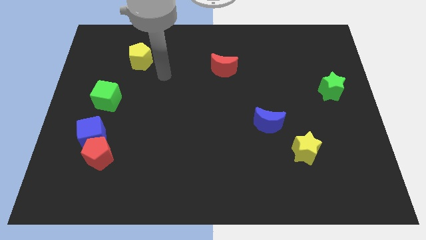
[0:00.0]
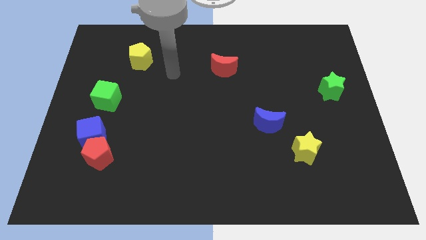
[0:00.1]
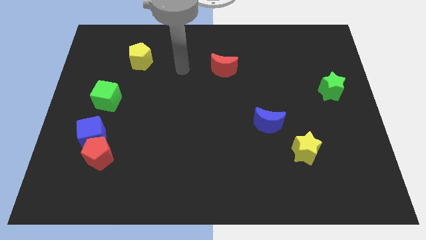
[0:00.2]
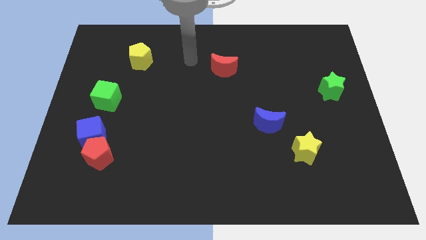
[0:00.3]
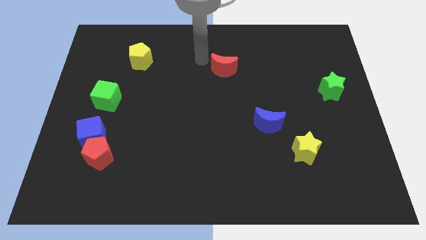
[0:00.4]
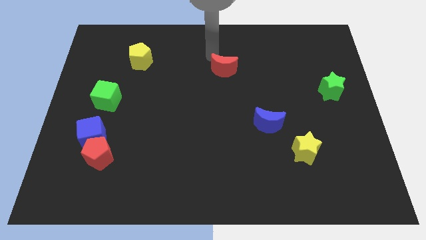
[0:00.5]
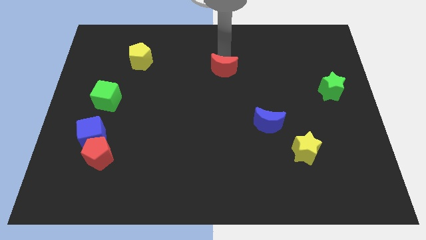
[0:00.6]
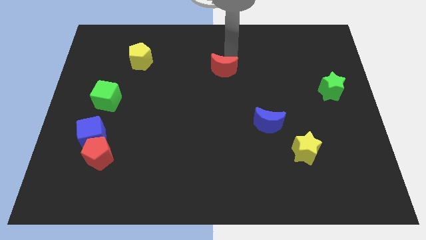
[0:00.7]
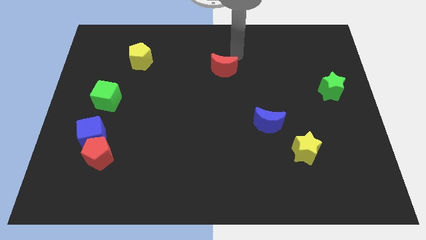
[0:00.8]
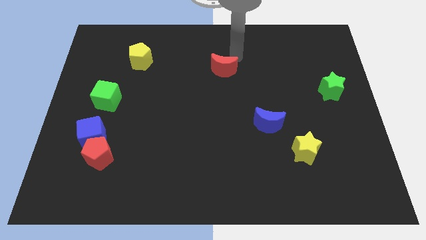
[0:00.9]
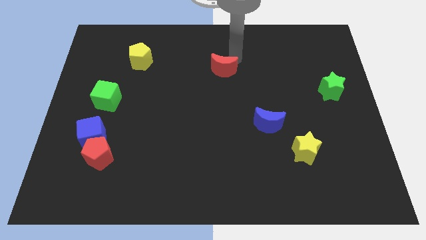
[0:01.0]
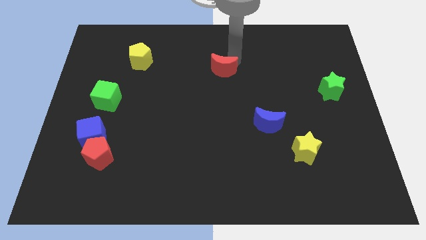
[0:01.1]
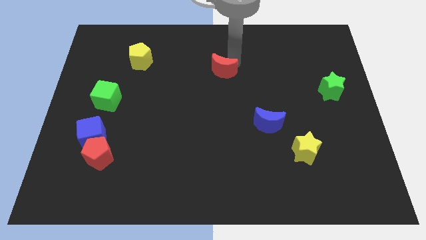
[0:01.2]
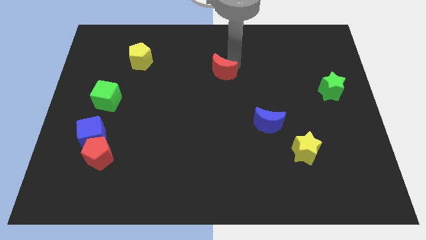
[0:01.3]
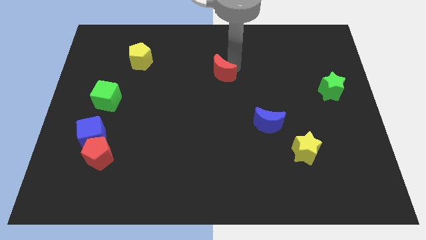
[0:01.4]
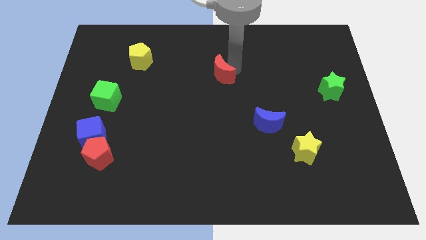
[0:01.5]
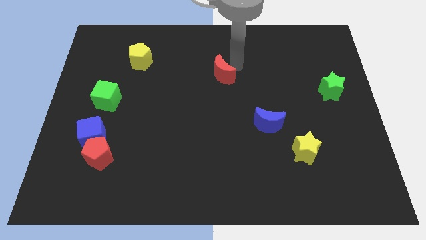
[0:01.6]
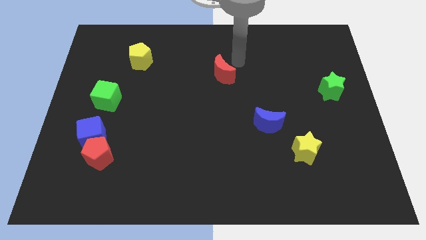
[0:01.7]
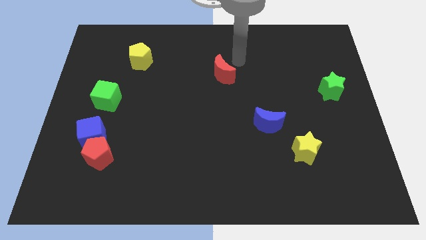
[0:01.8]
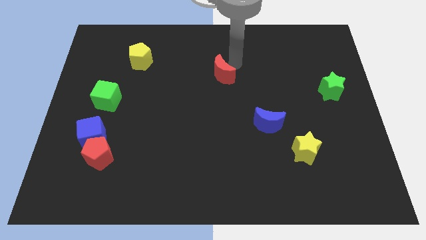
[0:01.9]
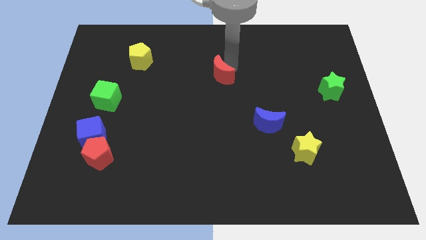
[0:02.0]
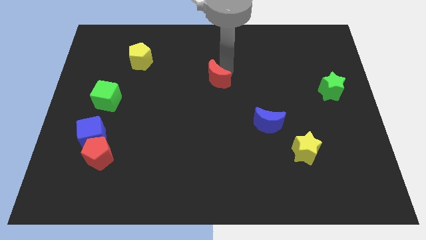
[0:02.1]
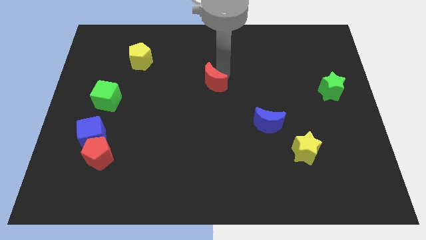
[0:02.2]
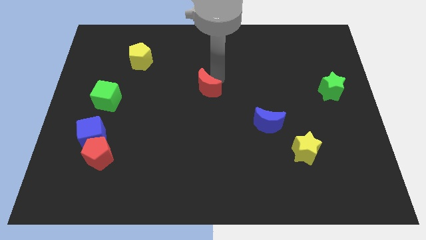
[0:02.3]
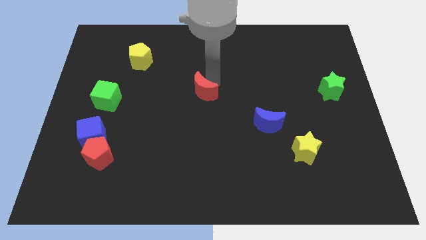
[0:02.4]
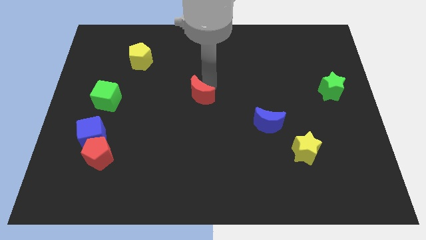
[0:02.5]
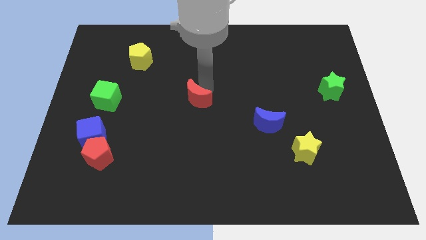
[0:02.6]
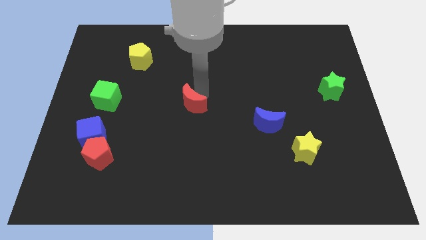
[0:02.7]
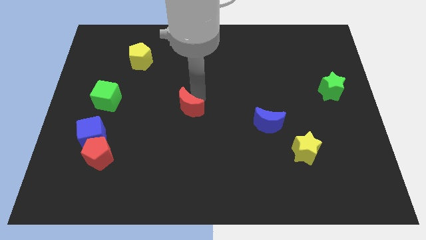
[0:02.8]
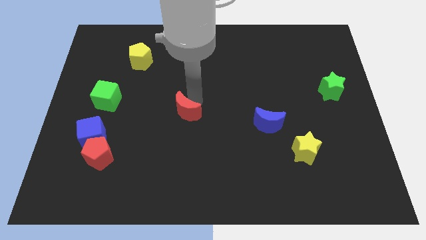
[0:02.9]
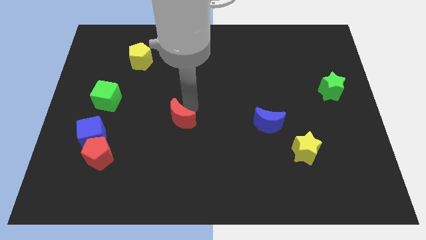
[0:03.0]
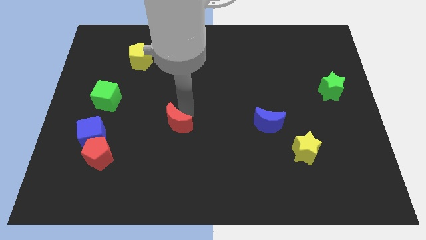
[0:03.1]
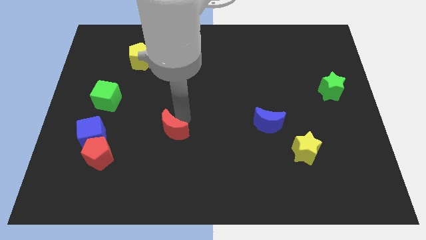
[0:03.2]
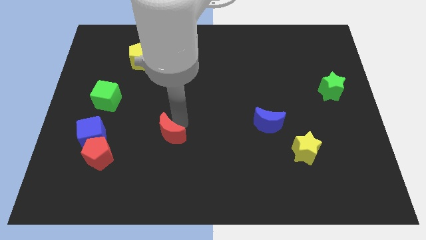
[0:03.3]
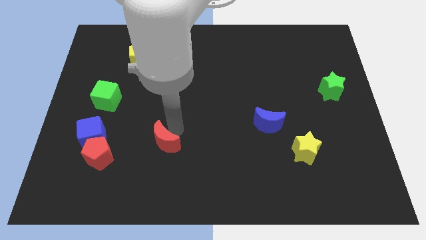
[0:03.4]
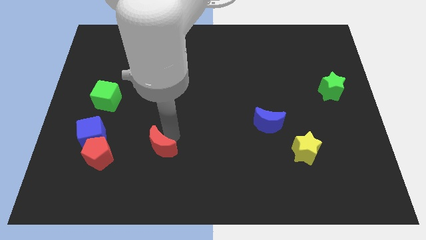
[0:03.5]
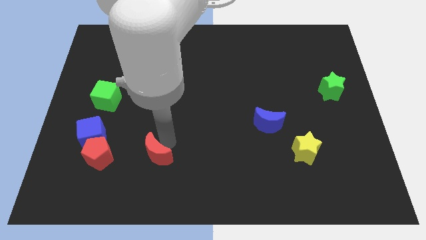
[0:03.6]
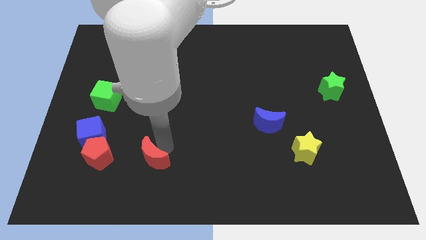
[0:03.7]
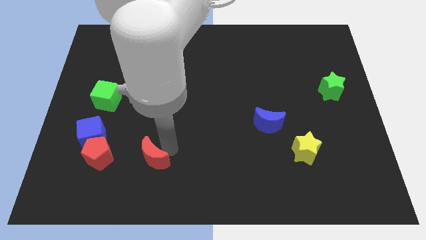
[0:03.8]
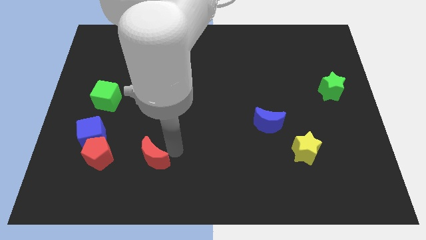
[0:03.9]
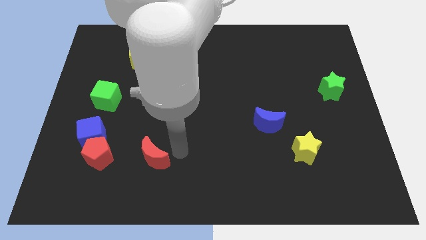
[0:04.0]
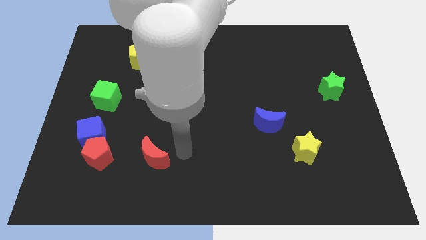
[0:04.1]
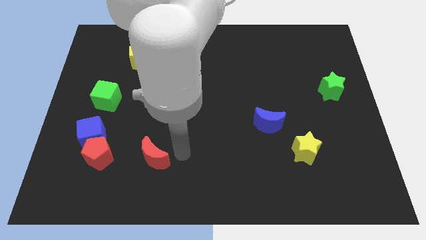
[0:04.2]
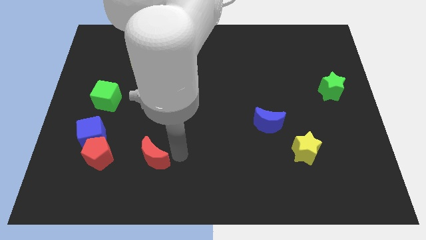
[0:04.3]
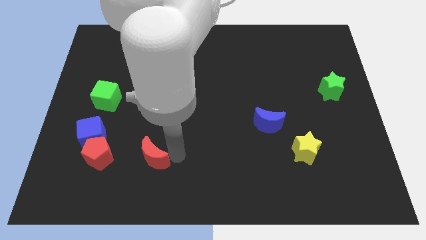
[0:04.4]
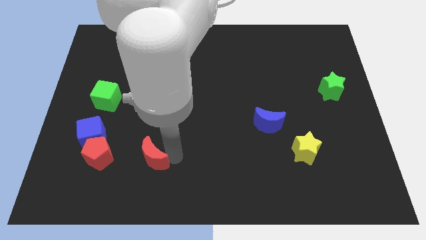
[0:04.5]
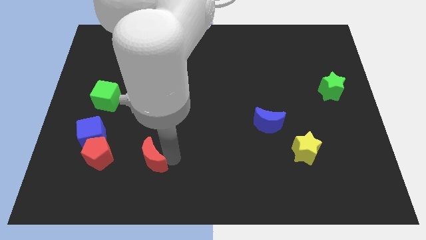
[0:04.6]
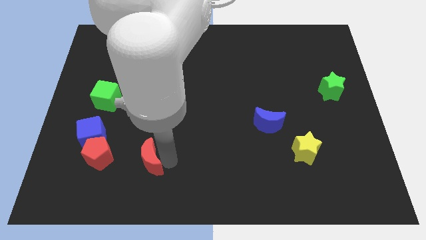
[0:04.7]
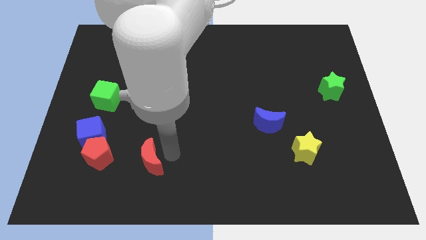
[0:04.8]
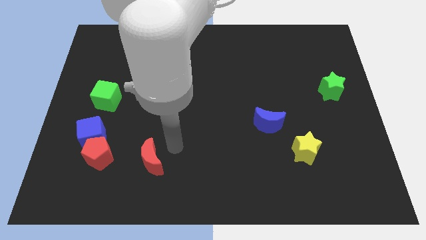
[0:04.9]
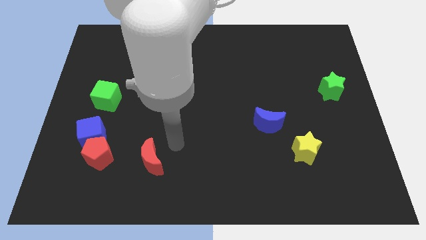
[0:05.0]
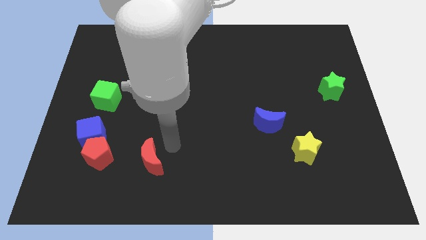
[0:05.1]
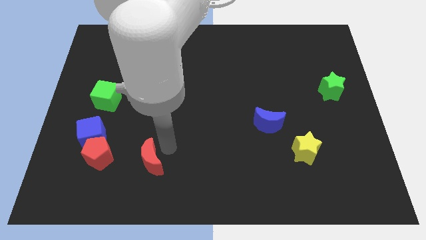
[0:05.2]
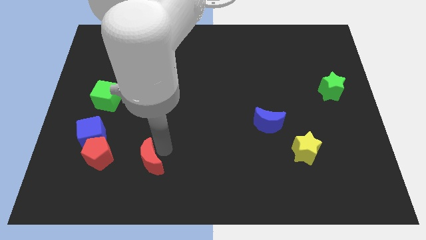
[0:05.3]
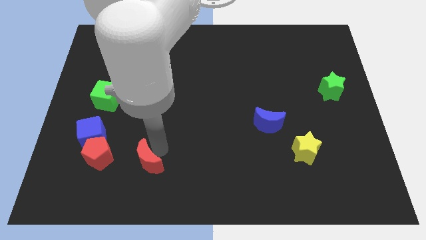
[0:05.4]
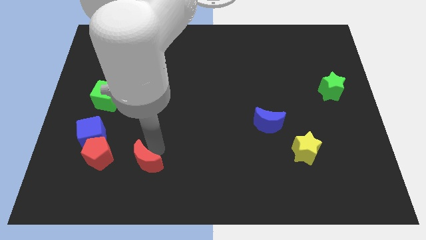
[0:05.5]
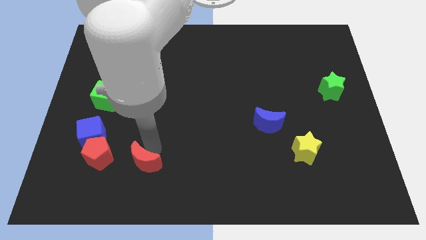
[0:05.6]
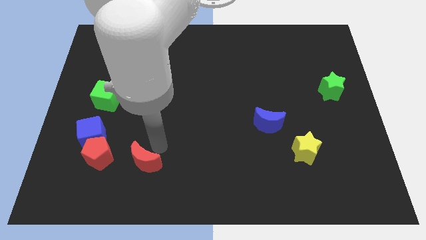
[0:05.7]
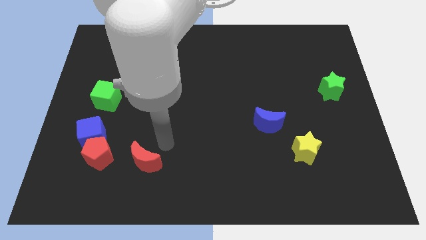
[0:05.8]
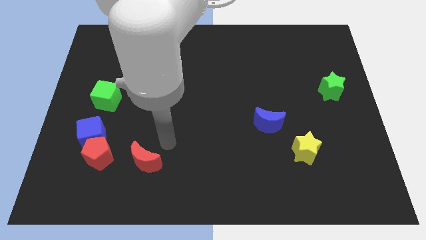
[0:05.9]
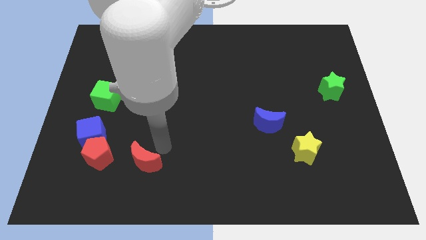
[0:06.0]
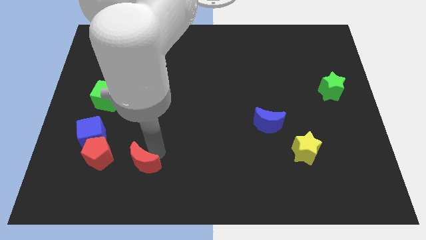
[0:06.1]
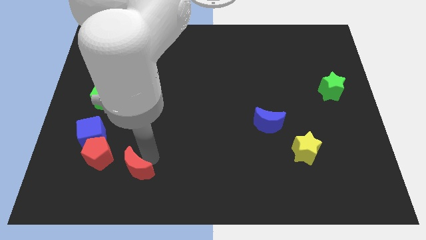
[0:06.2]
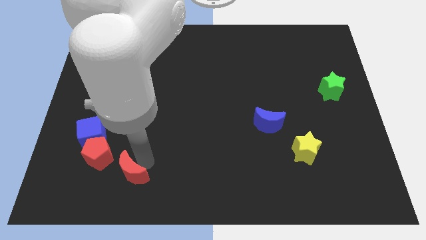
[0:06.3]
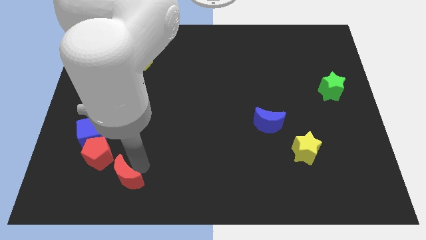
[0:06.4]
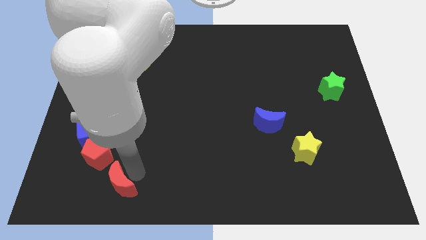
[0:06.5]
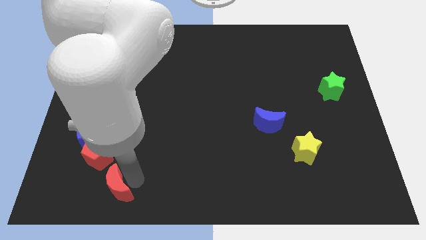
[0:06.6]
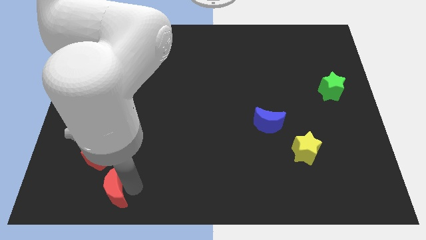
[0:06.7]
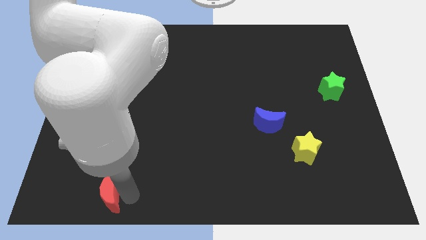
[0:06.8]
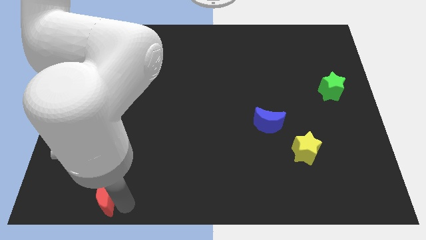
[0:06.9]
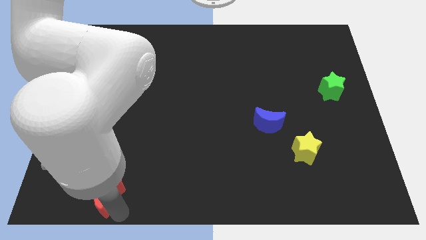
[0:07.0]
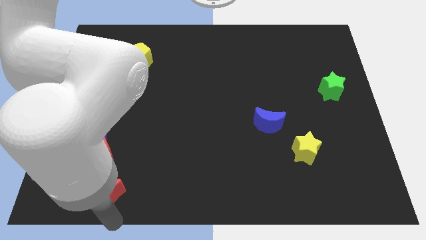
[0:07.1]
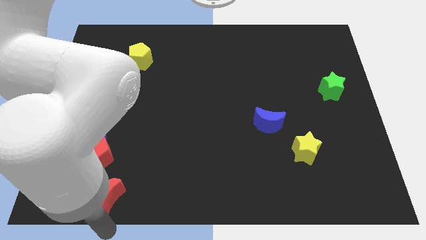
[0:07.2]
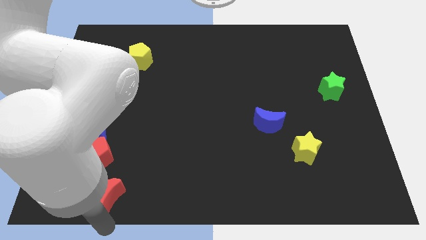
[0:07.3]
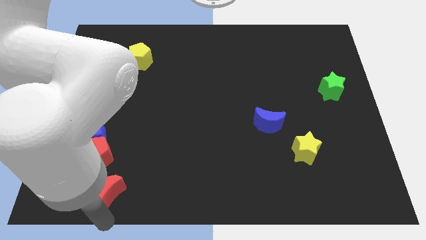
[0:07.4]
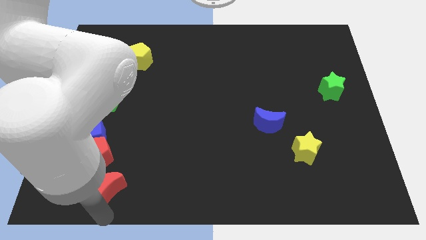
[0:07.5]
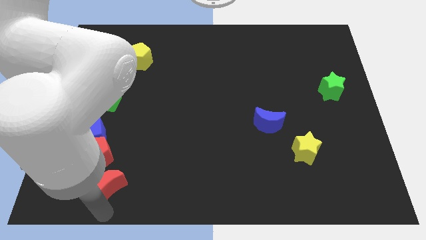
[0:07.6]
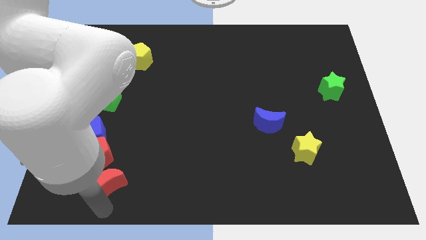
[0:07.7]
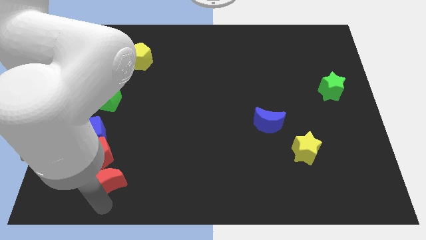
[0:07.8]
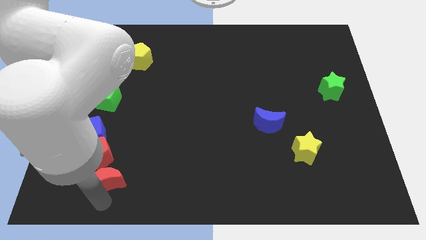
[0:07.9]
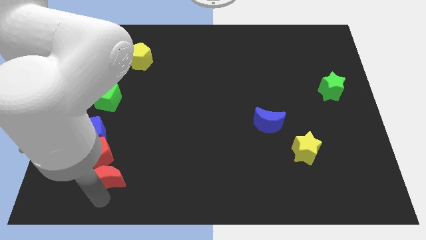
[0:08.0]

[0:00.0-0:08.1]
push the red moon to the bottom right of the blue cube

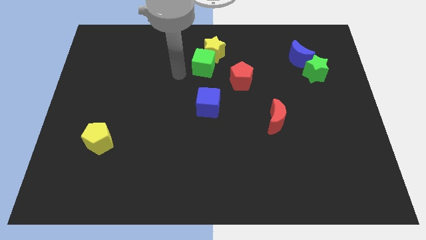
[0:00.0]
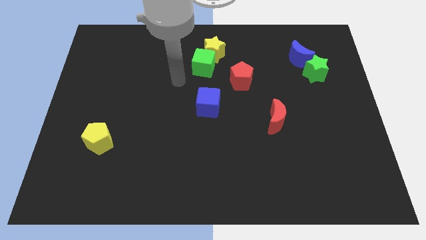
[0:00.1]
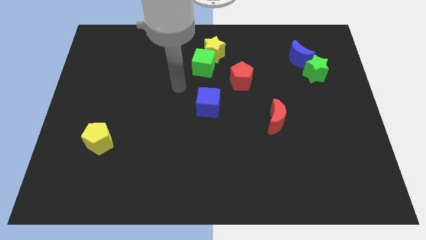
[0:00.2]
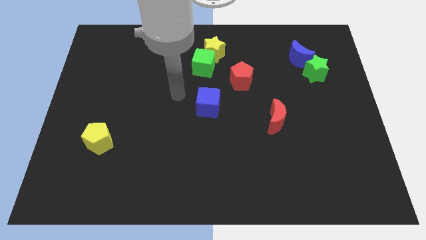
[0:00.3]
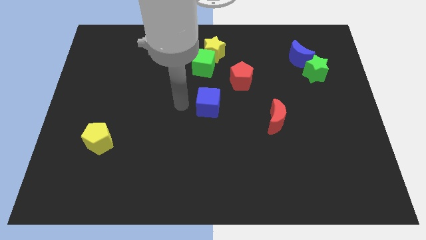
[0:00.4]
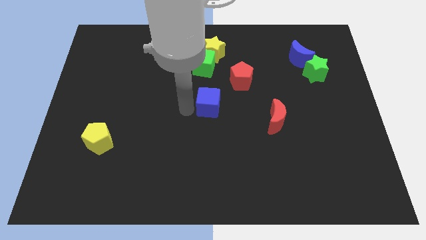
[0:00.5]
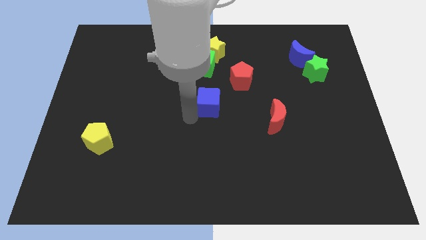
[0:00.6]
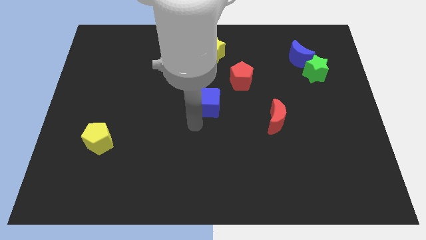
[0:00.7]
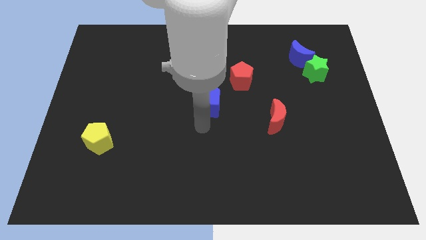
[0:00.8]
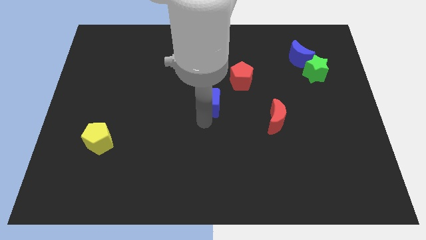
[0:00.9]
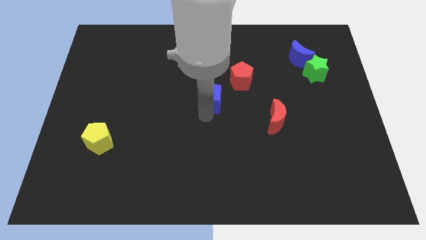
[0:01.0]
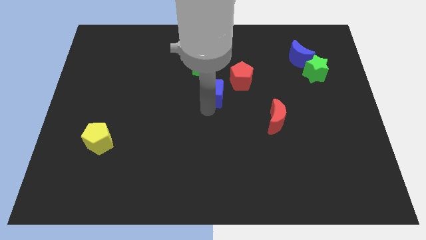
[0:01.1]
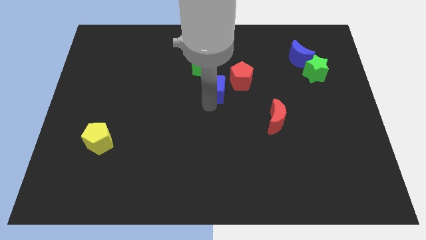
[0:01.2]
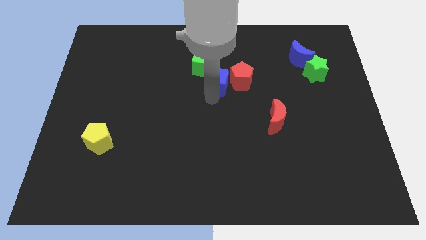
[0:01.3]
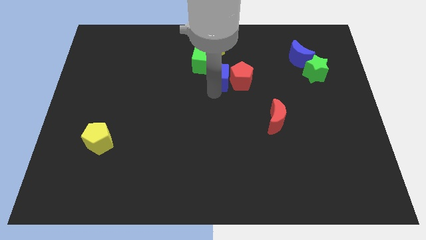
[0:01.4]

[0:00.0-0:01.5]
push the blue cube to the top left side of the red pentagon
